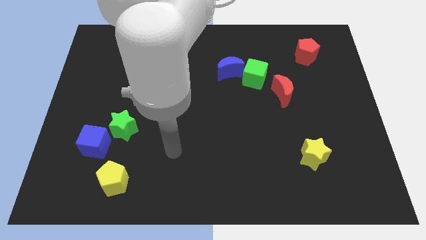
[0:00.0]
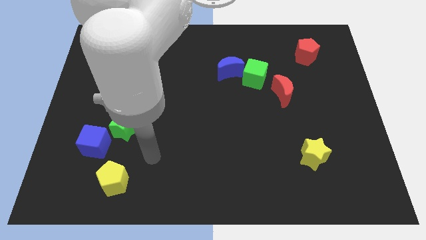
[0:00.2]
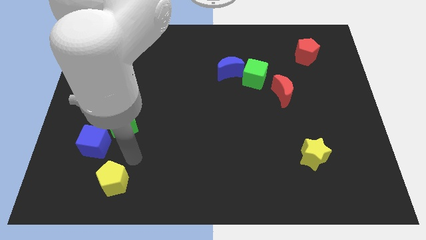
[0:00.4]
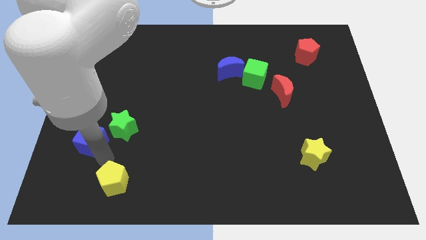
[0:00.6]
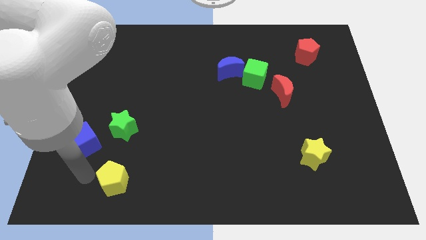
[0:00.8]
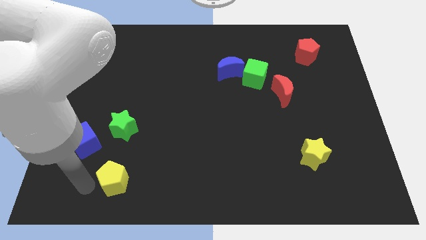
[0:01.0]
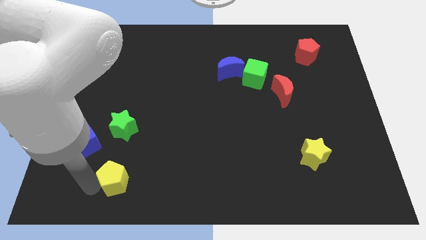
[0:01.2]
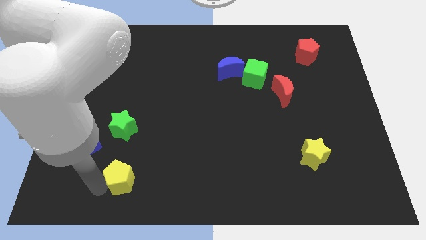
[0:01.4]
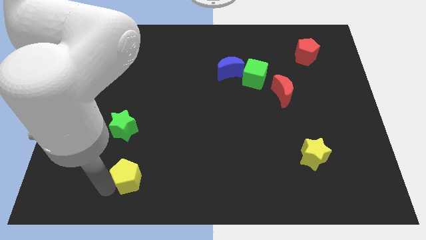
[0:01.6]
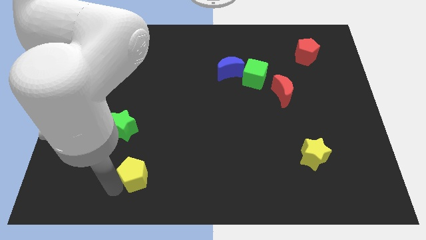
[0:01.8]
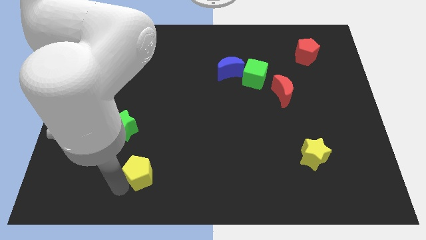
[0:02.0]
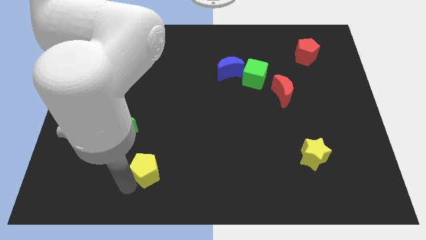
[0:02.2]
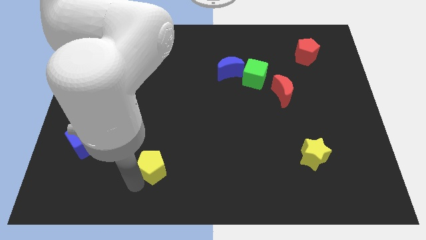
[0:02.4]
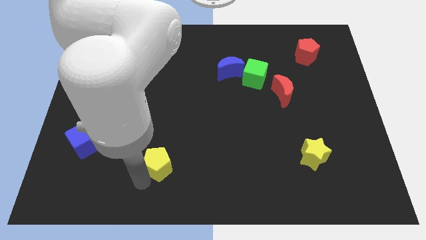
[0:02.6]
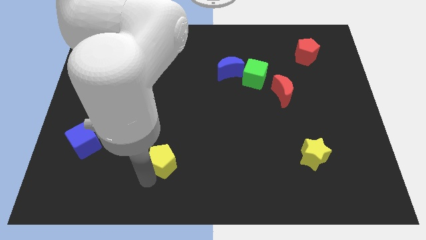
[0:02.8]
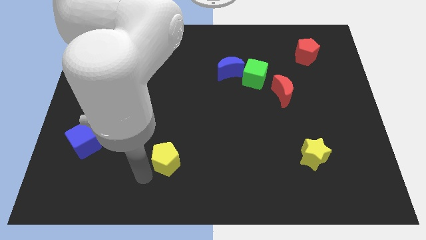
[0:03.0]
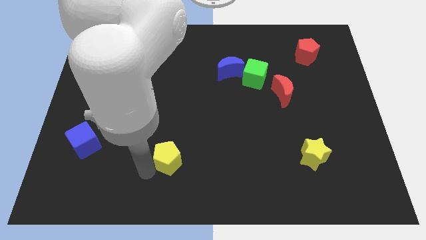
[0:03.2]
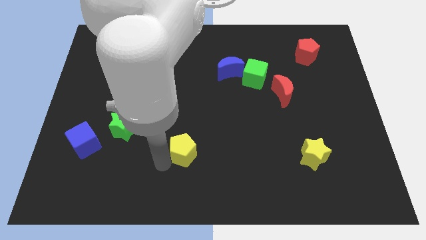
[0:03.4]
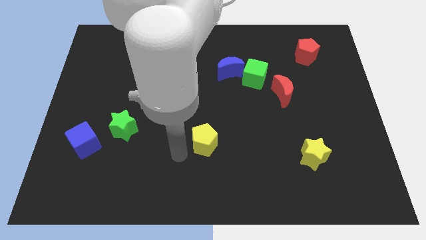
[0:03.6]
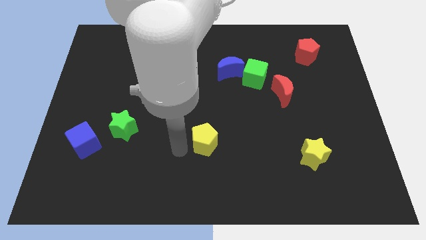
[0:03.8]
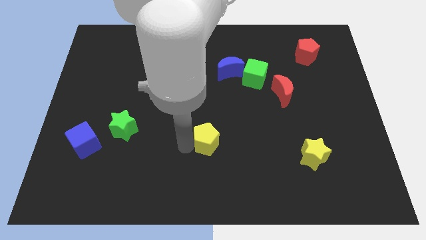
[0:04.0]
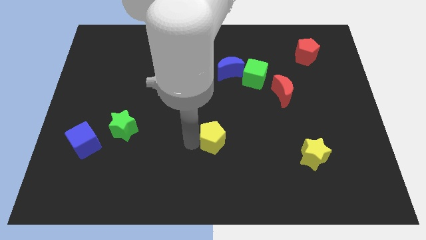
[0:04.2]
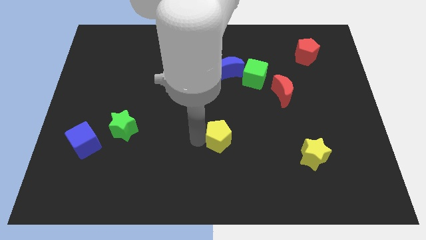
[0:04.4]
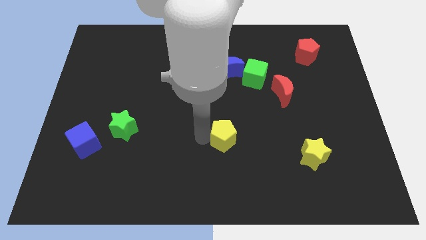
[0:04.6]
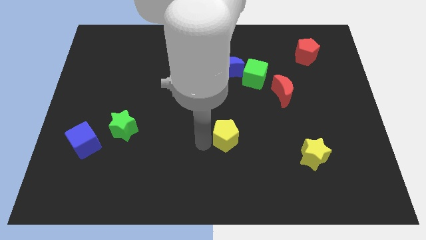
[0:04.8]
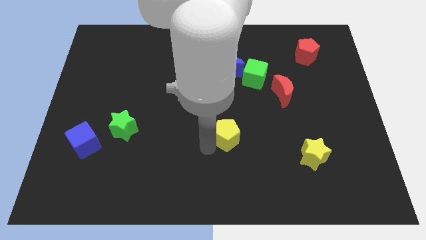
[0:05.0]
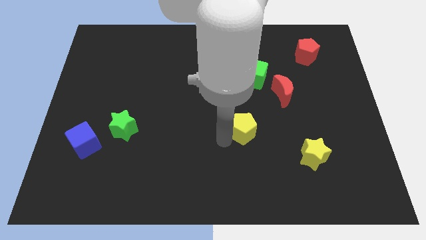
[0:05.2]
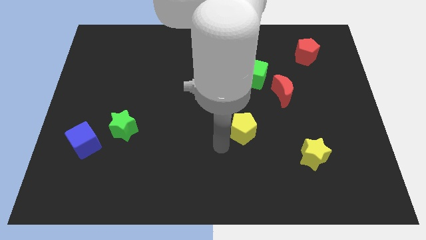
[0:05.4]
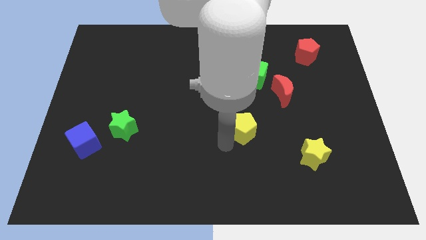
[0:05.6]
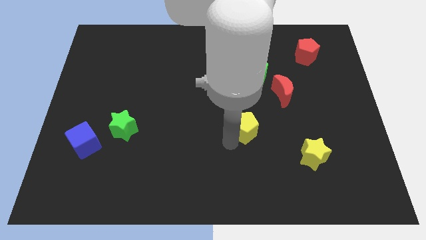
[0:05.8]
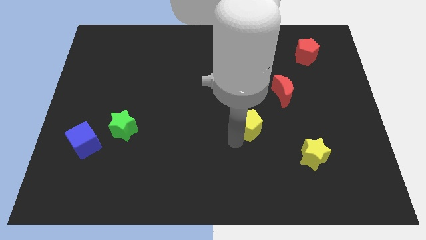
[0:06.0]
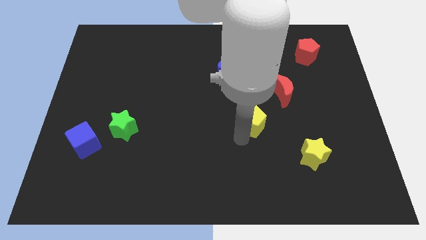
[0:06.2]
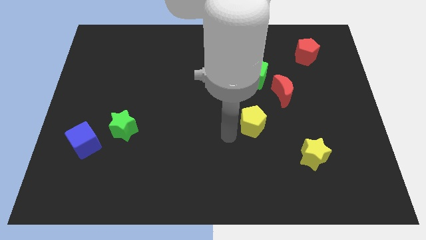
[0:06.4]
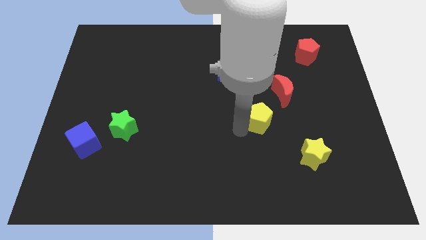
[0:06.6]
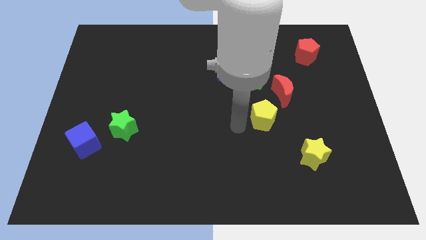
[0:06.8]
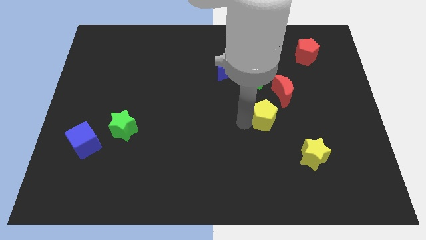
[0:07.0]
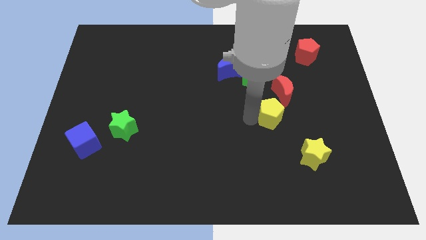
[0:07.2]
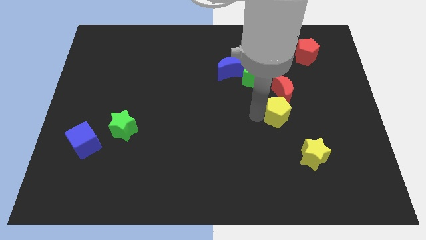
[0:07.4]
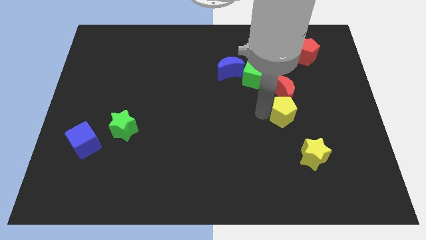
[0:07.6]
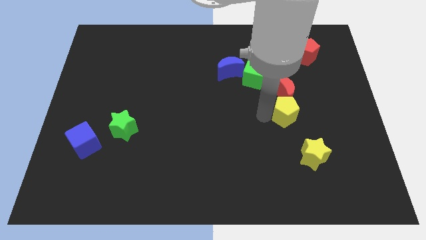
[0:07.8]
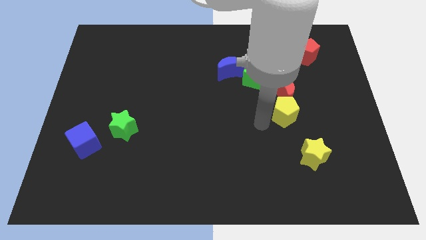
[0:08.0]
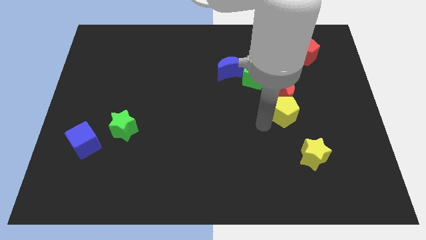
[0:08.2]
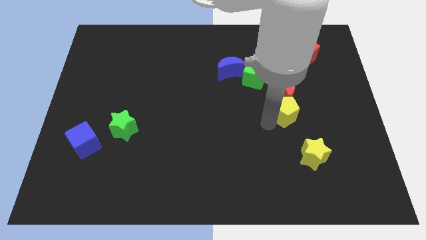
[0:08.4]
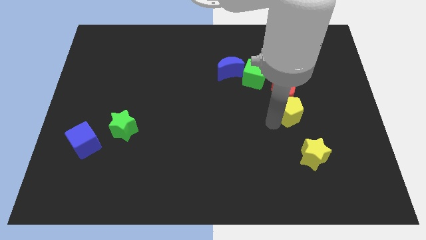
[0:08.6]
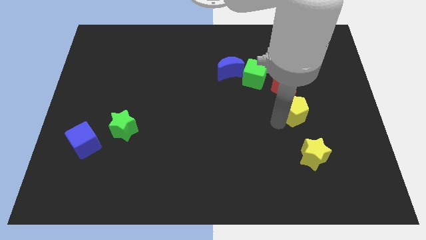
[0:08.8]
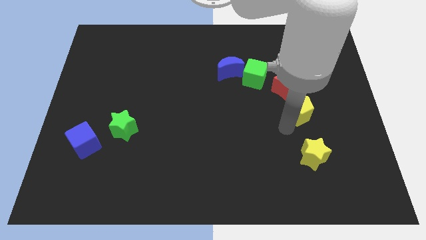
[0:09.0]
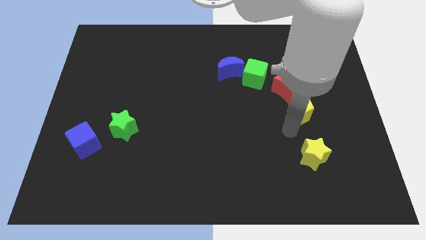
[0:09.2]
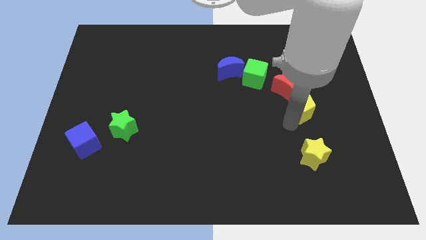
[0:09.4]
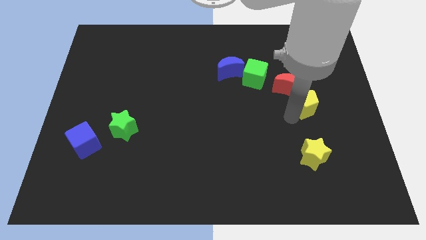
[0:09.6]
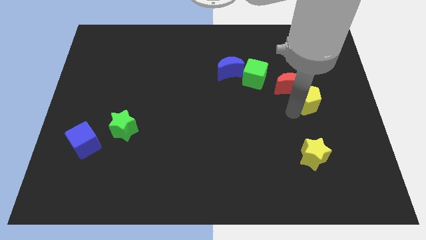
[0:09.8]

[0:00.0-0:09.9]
put the yellow pentagon below the red pentagon

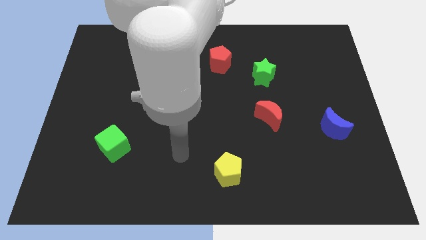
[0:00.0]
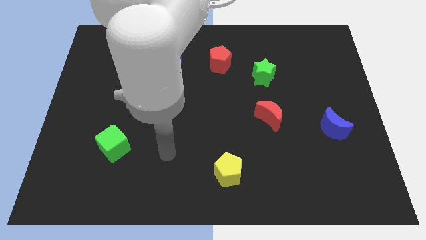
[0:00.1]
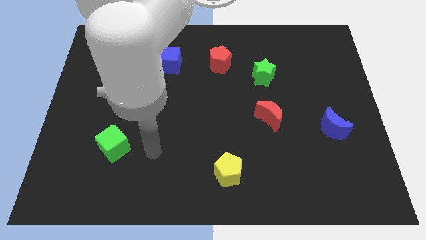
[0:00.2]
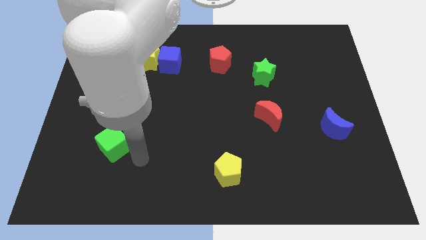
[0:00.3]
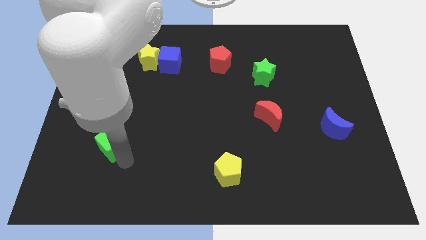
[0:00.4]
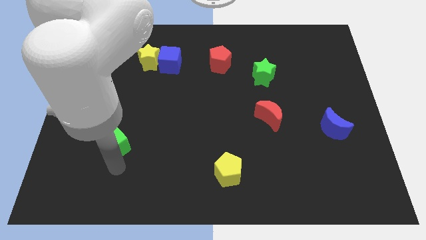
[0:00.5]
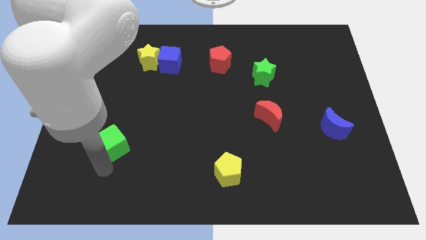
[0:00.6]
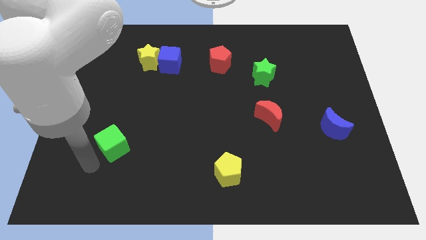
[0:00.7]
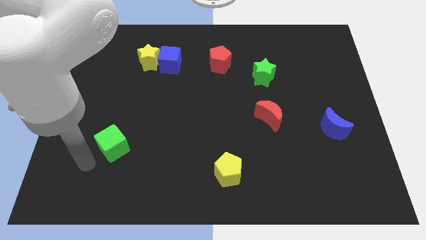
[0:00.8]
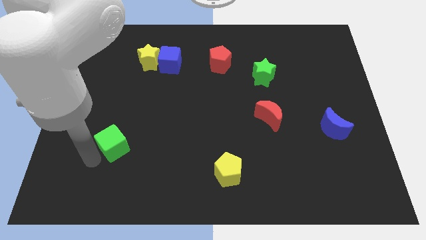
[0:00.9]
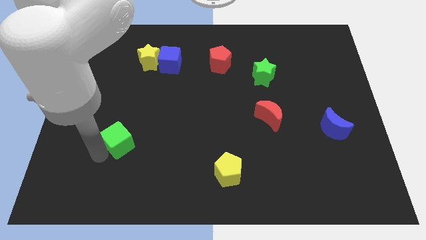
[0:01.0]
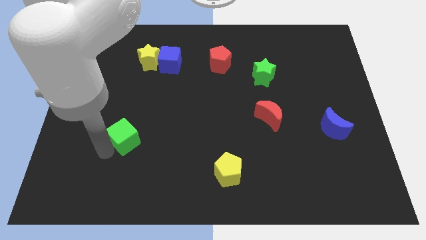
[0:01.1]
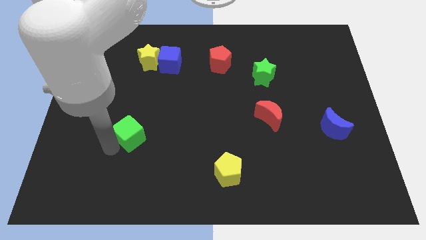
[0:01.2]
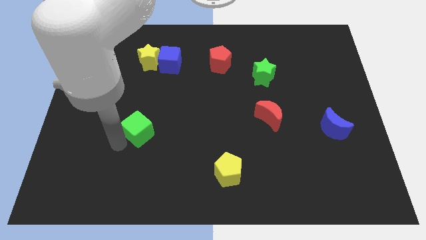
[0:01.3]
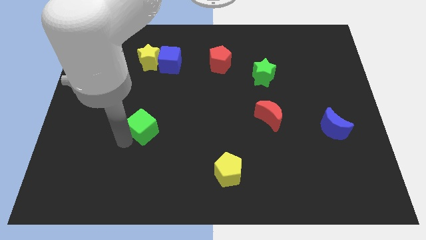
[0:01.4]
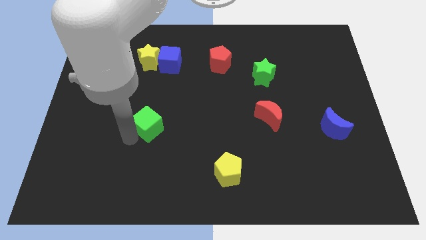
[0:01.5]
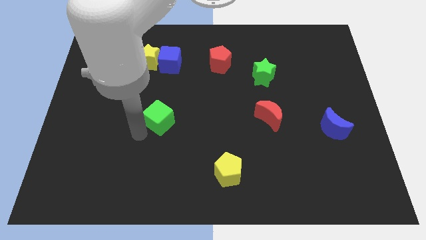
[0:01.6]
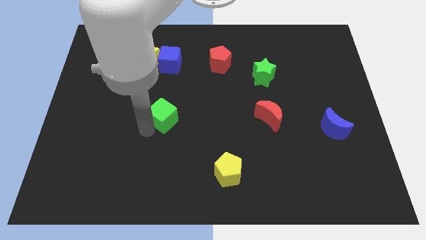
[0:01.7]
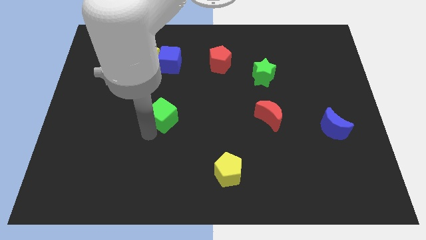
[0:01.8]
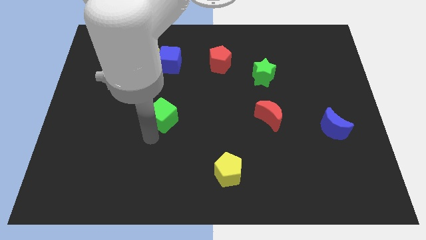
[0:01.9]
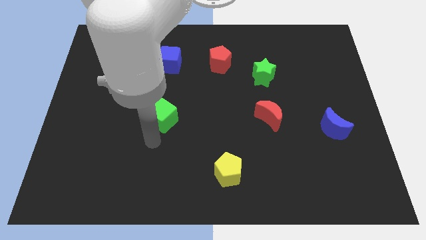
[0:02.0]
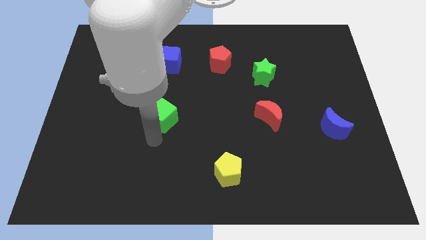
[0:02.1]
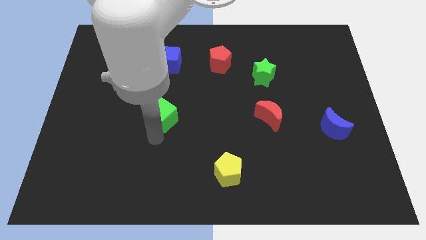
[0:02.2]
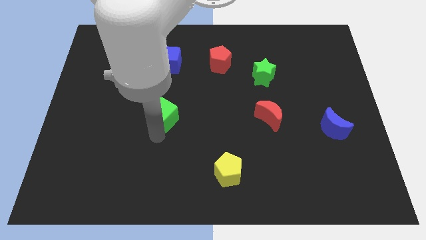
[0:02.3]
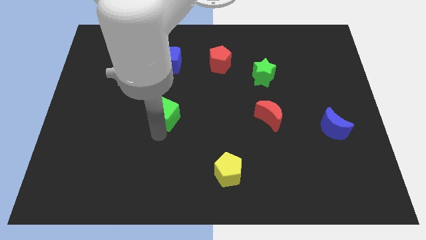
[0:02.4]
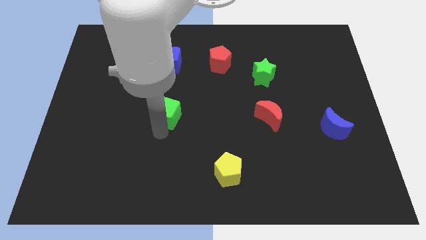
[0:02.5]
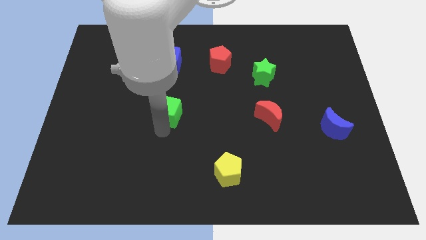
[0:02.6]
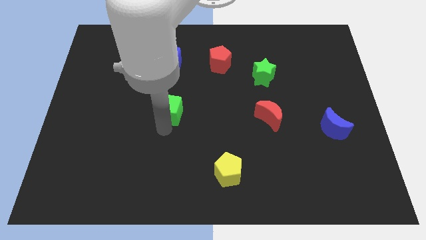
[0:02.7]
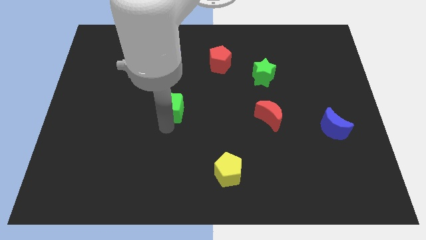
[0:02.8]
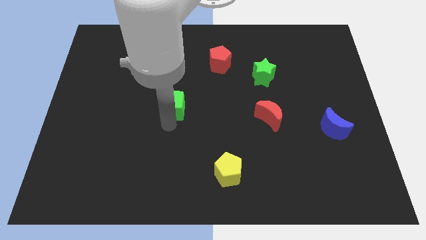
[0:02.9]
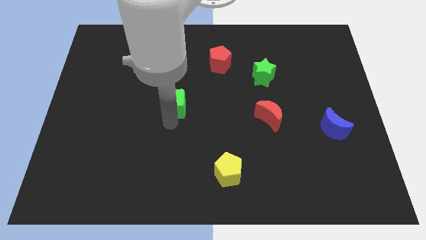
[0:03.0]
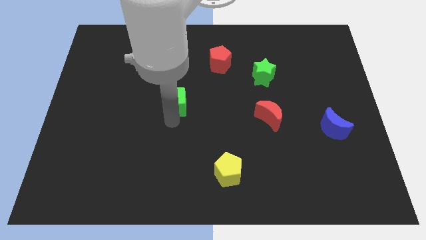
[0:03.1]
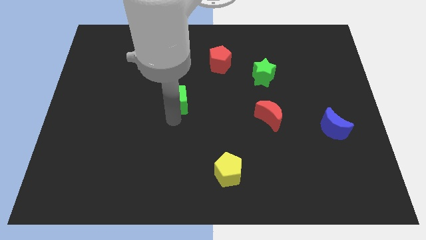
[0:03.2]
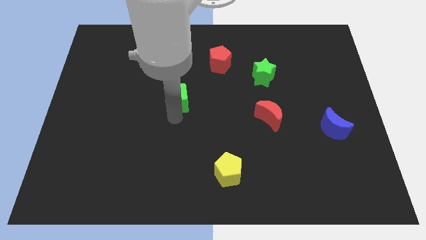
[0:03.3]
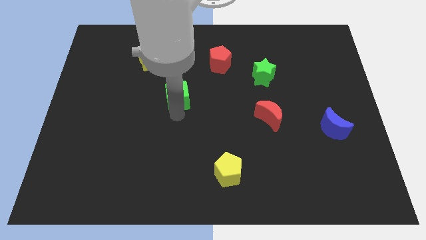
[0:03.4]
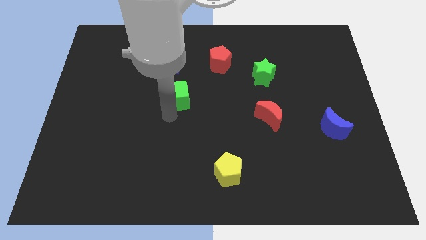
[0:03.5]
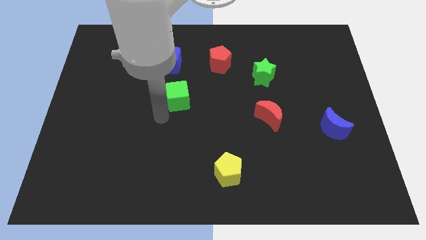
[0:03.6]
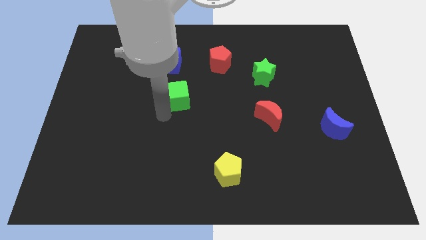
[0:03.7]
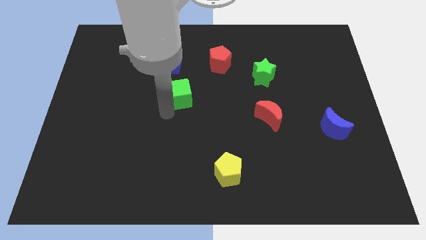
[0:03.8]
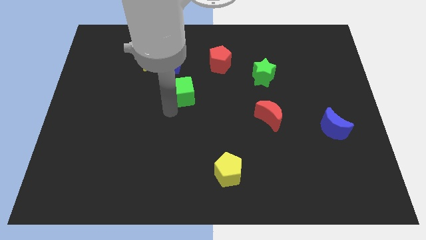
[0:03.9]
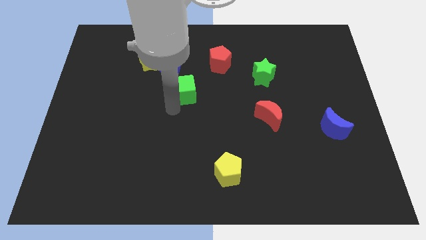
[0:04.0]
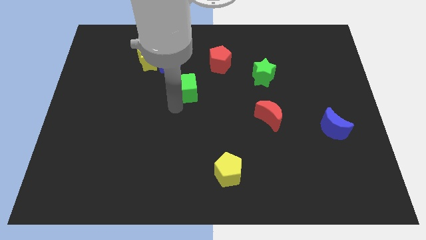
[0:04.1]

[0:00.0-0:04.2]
push the green cube to the bottom left of the red pentagon
